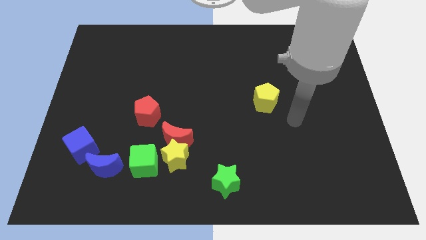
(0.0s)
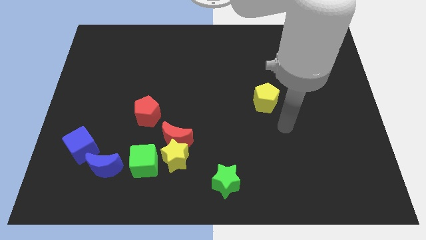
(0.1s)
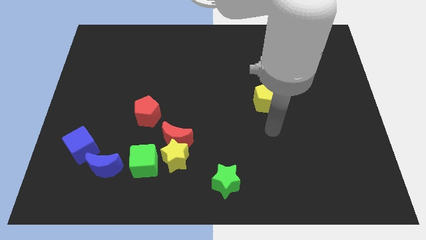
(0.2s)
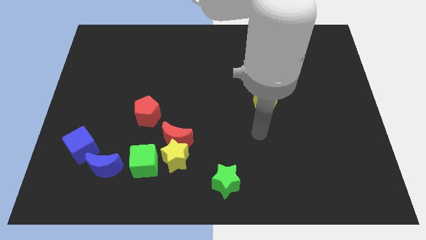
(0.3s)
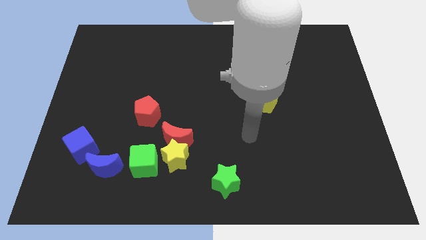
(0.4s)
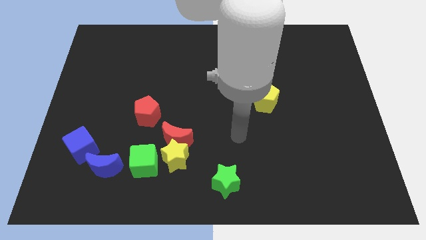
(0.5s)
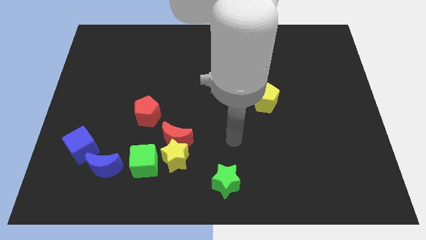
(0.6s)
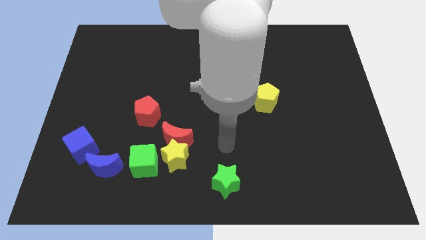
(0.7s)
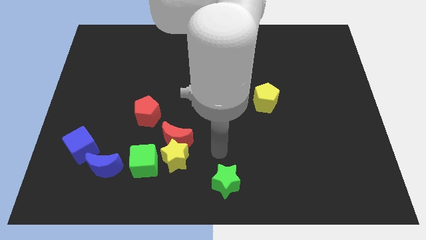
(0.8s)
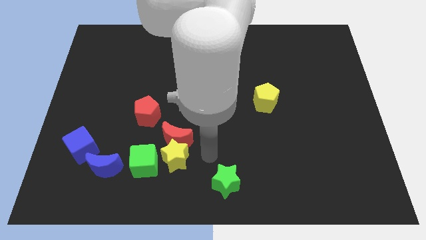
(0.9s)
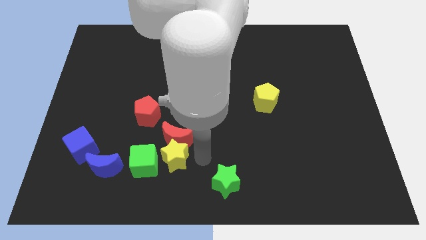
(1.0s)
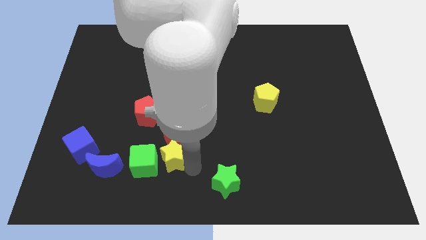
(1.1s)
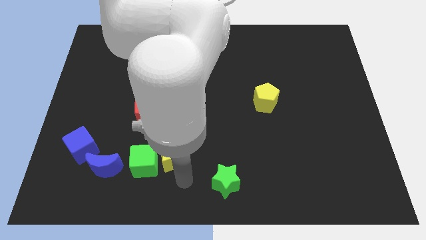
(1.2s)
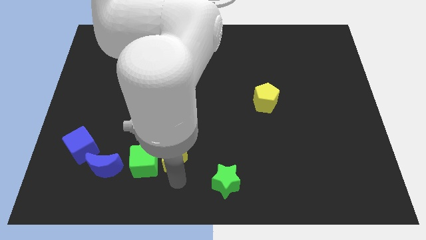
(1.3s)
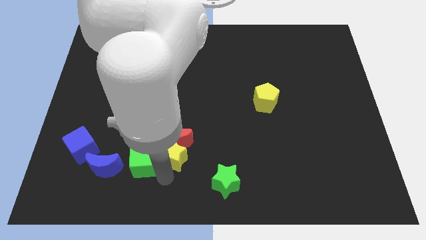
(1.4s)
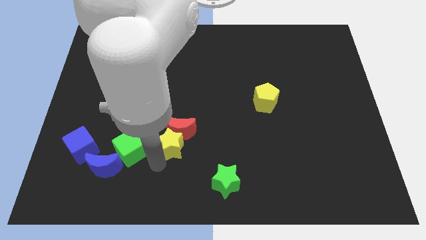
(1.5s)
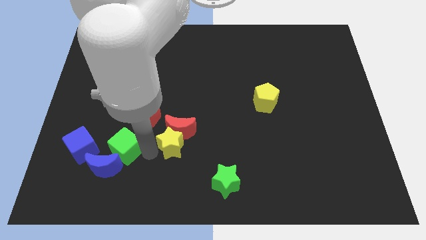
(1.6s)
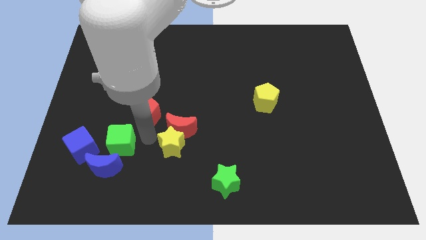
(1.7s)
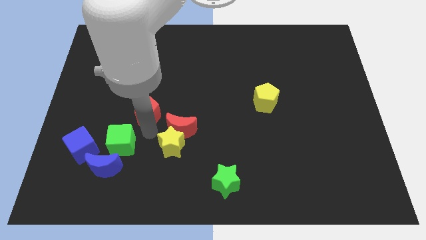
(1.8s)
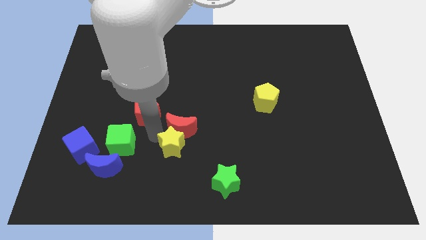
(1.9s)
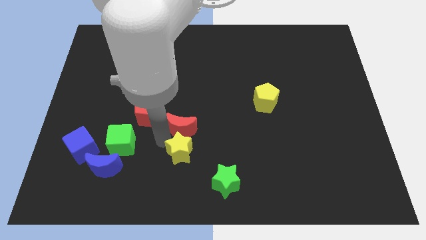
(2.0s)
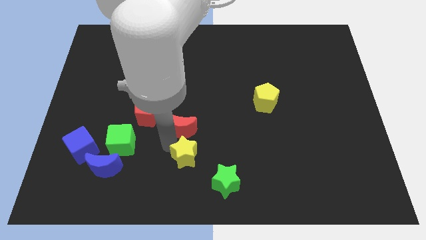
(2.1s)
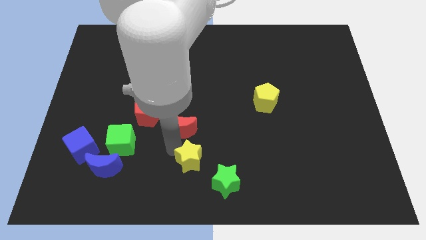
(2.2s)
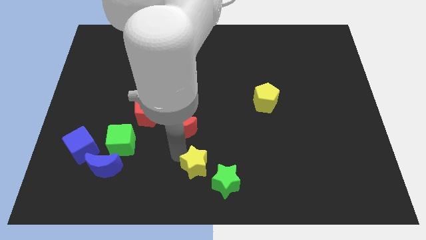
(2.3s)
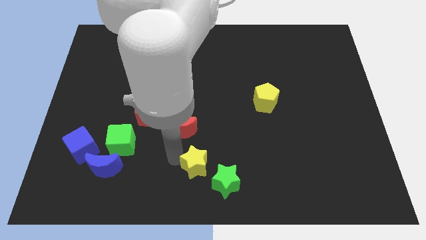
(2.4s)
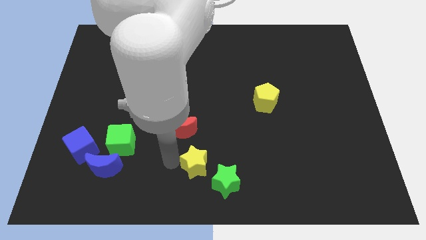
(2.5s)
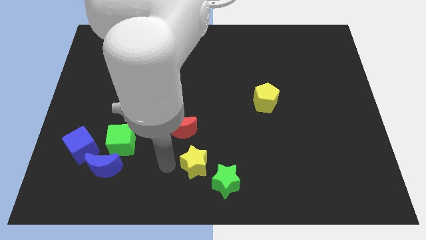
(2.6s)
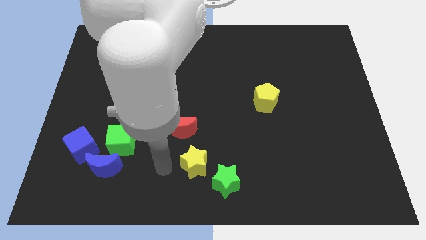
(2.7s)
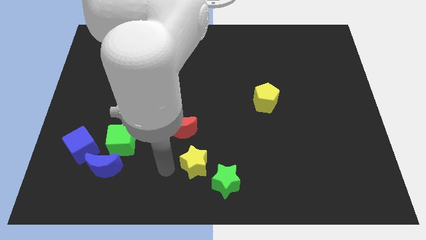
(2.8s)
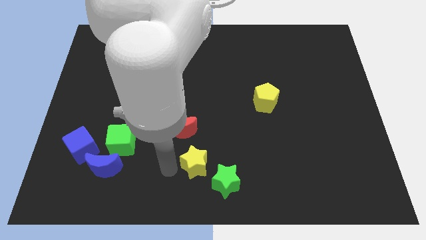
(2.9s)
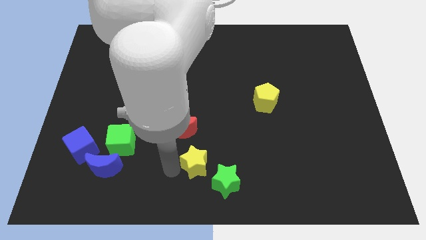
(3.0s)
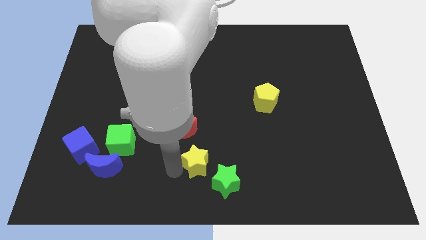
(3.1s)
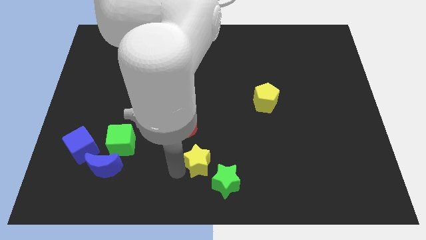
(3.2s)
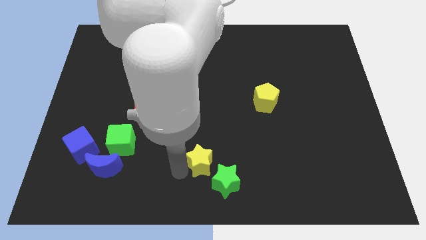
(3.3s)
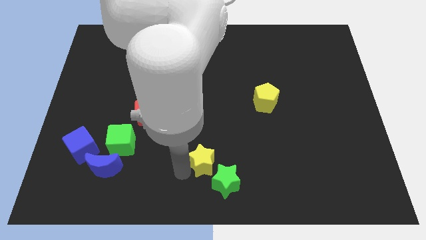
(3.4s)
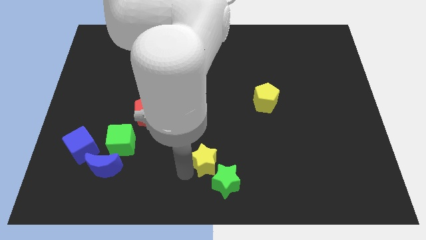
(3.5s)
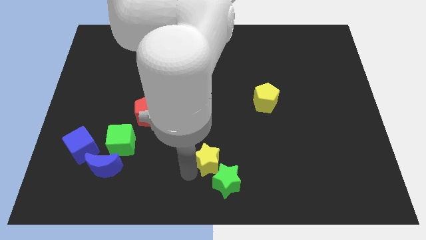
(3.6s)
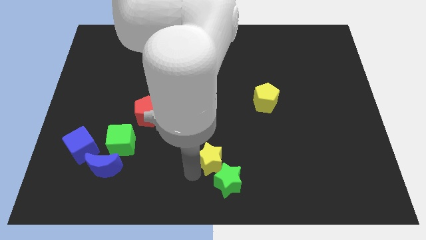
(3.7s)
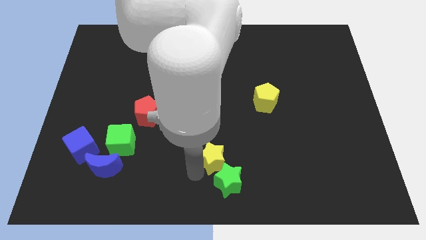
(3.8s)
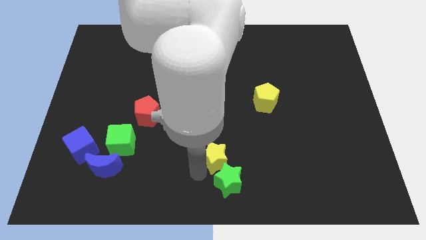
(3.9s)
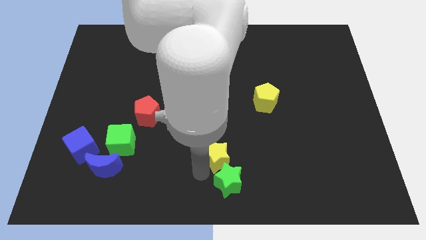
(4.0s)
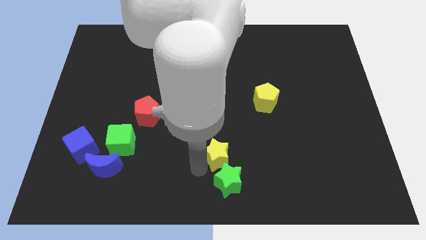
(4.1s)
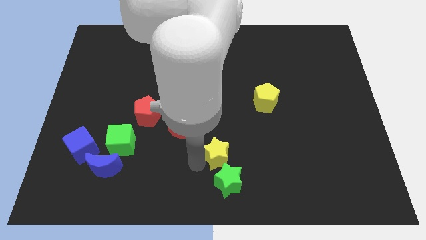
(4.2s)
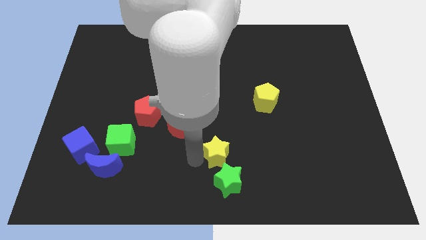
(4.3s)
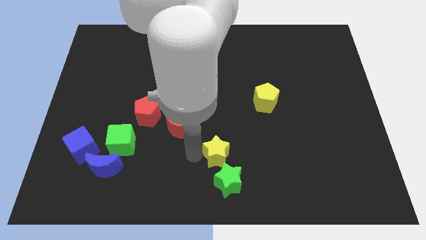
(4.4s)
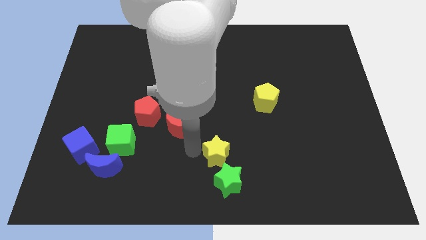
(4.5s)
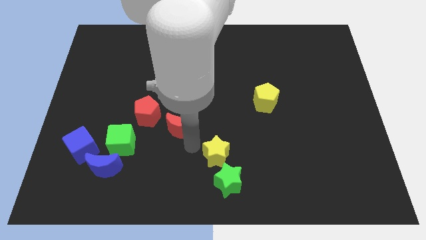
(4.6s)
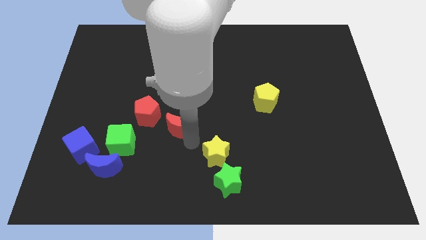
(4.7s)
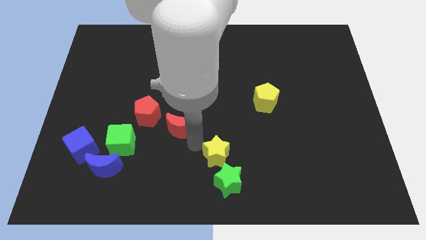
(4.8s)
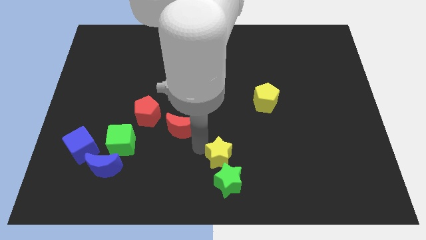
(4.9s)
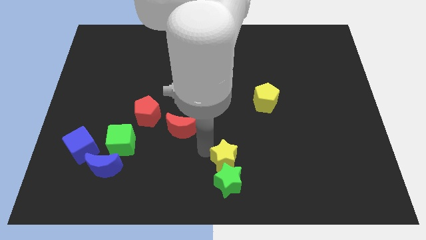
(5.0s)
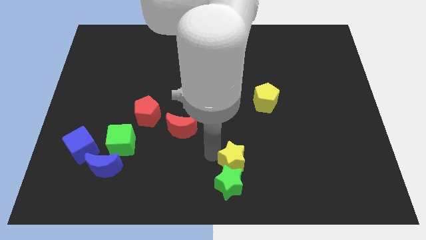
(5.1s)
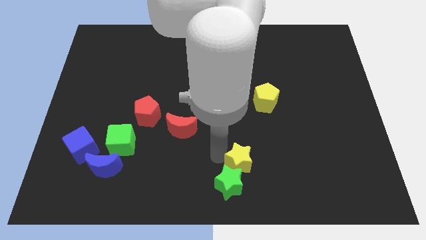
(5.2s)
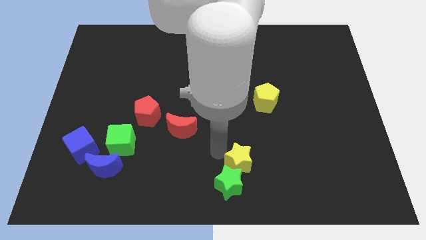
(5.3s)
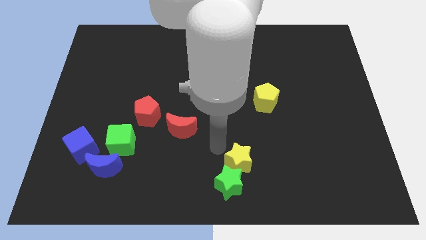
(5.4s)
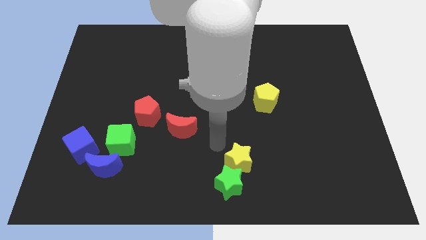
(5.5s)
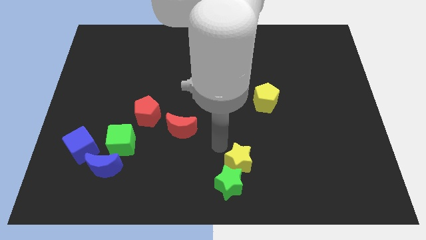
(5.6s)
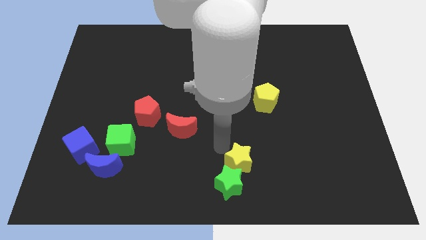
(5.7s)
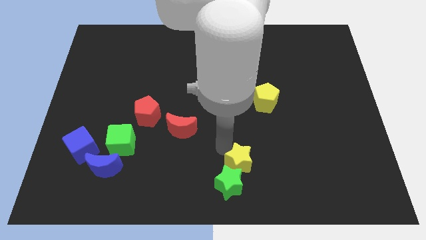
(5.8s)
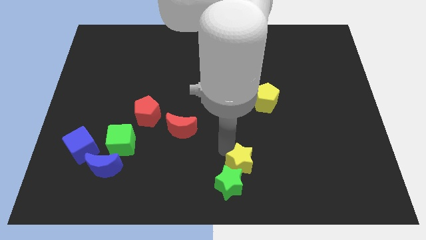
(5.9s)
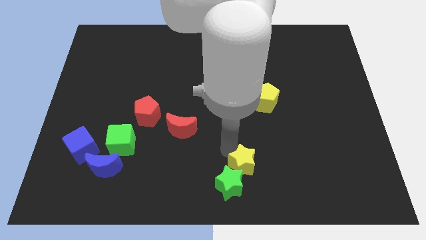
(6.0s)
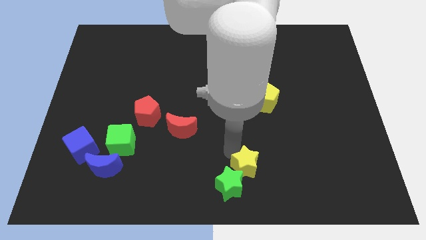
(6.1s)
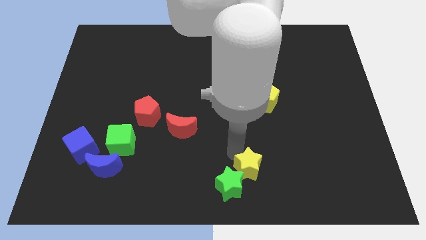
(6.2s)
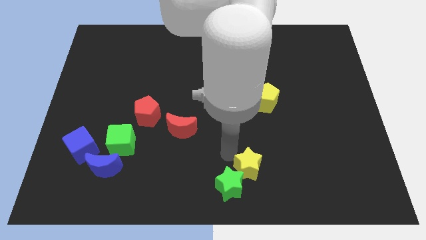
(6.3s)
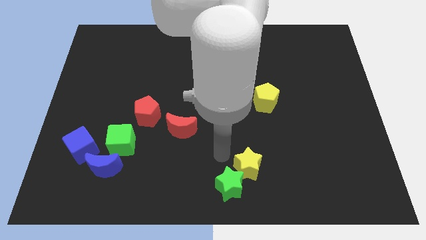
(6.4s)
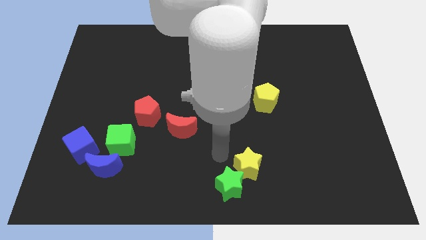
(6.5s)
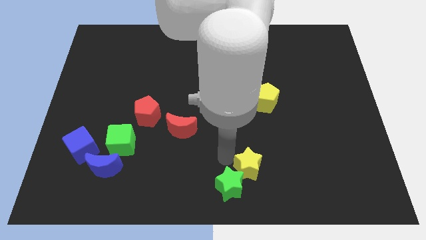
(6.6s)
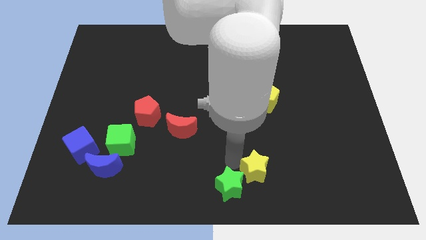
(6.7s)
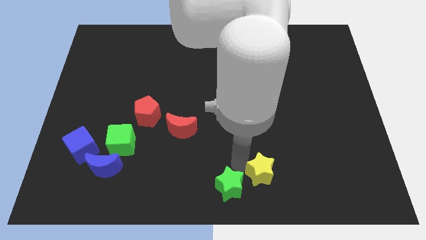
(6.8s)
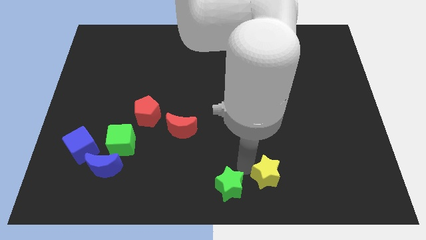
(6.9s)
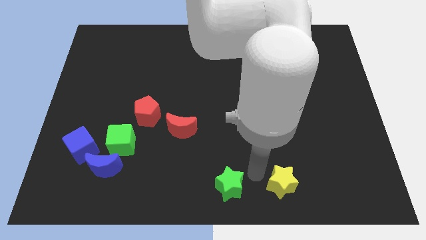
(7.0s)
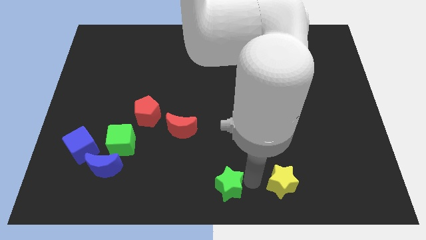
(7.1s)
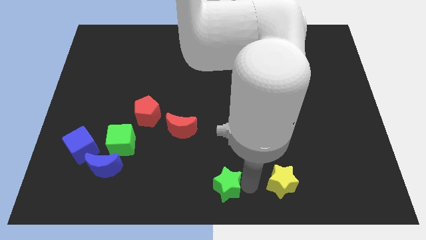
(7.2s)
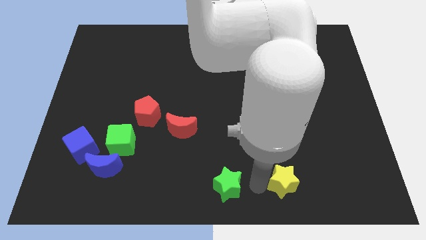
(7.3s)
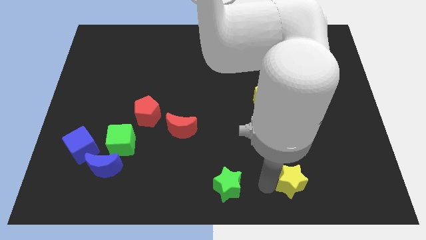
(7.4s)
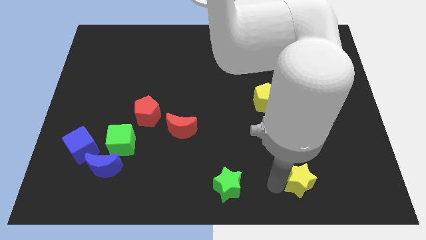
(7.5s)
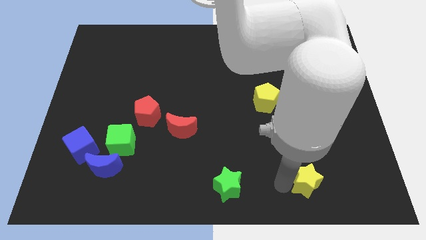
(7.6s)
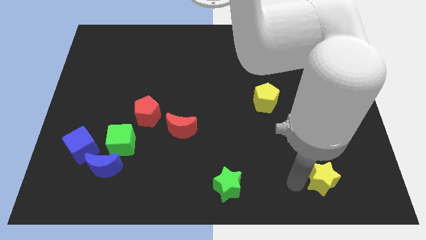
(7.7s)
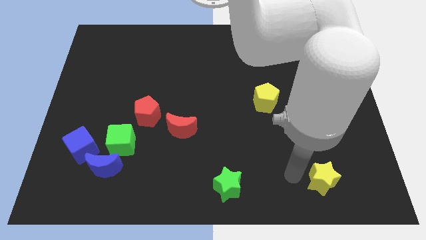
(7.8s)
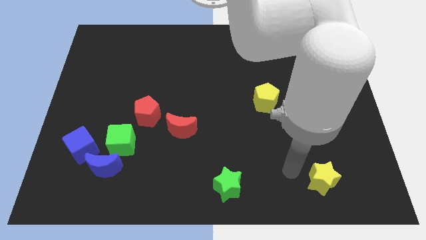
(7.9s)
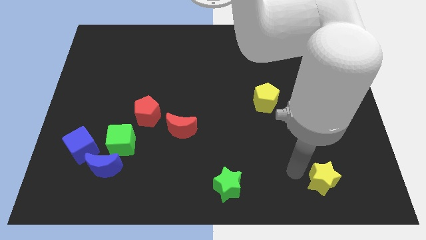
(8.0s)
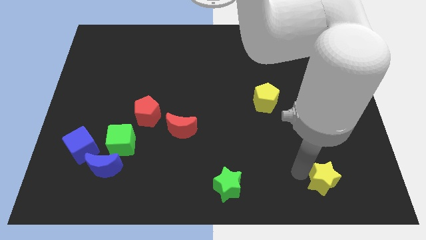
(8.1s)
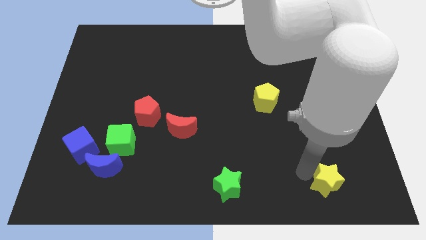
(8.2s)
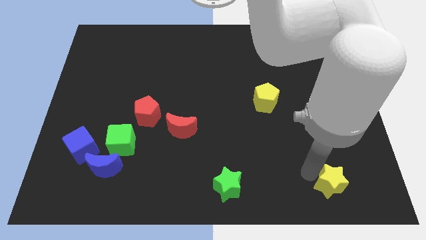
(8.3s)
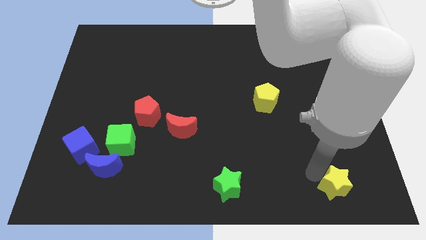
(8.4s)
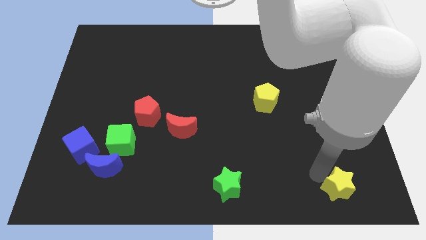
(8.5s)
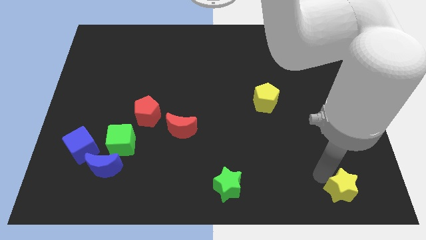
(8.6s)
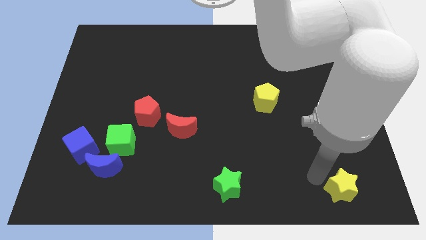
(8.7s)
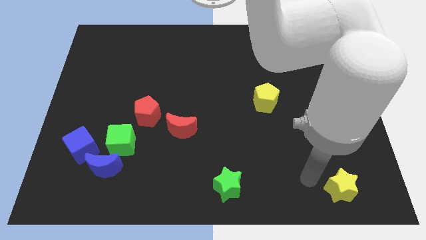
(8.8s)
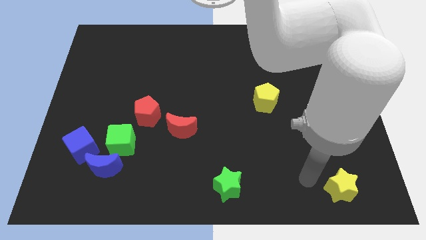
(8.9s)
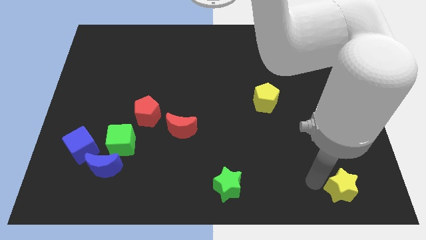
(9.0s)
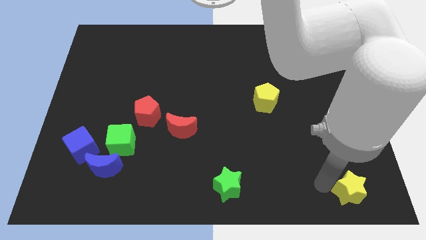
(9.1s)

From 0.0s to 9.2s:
put the yellow star to the bottom right of the board
